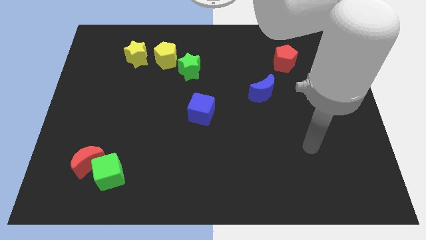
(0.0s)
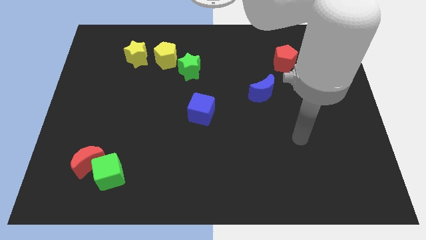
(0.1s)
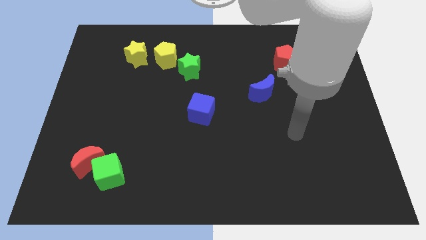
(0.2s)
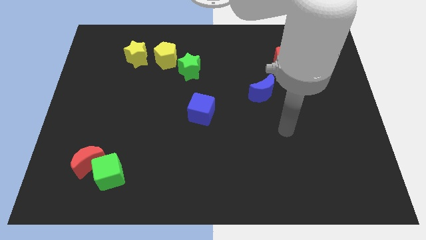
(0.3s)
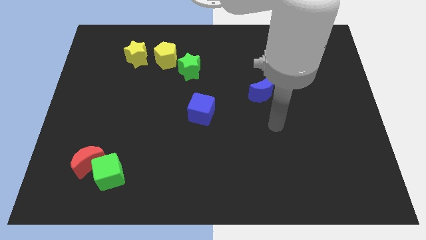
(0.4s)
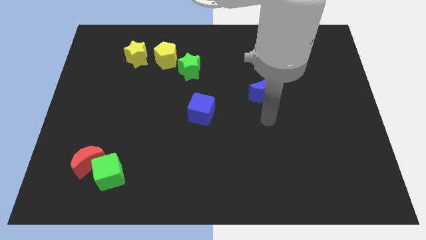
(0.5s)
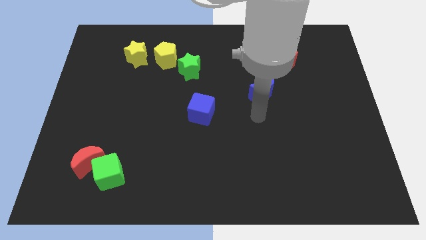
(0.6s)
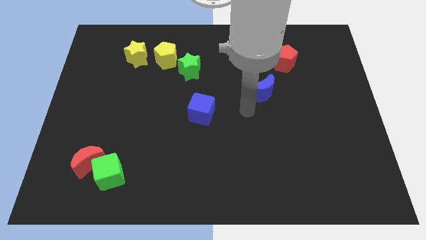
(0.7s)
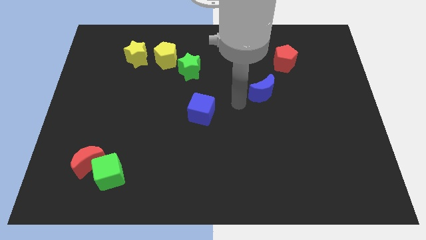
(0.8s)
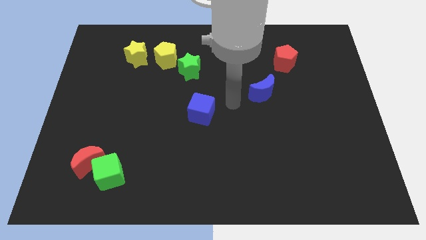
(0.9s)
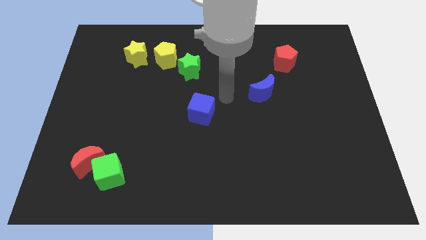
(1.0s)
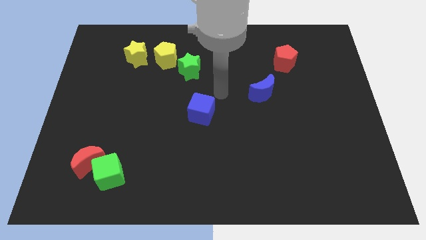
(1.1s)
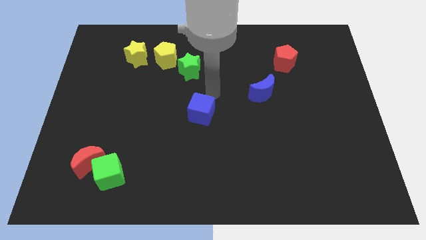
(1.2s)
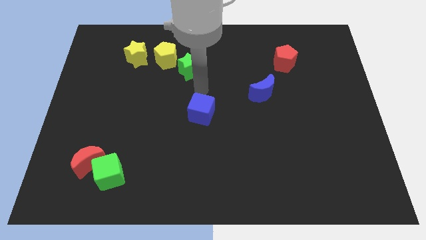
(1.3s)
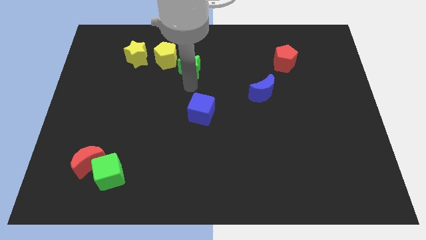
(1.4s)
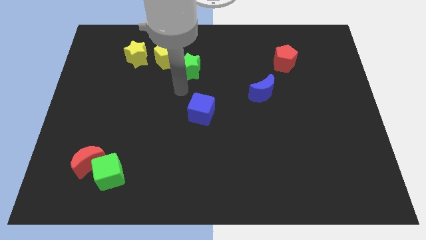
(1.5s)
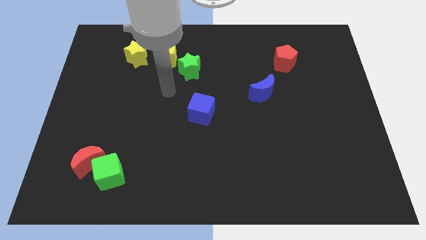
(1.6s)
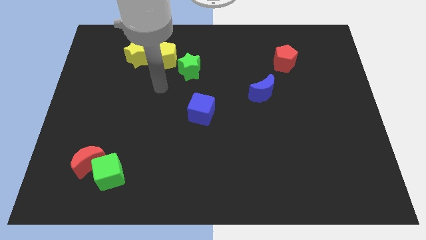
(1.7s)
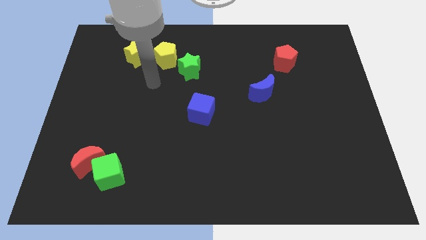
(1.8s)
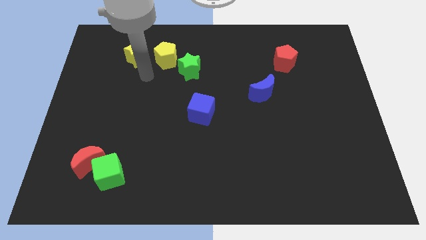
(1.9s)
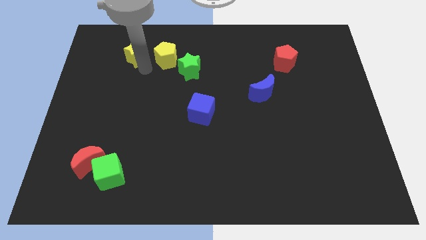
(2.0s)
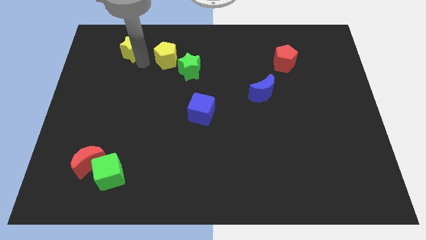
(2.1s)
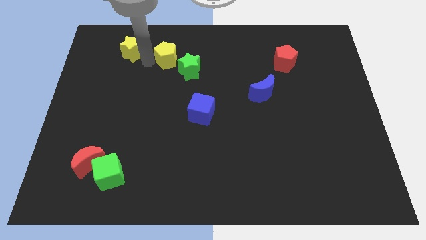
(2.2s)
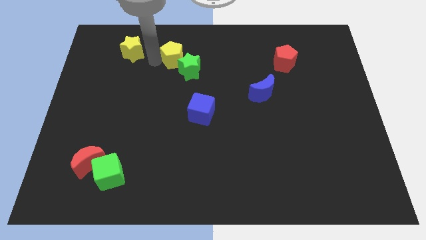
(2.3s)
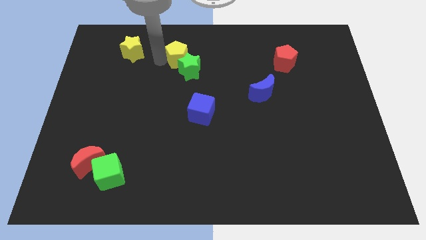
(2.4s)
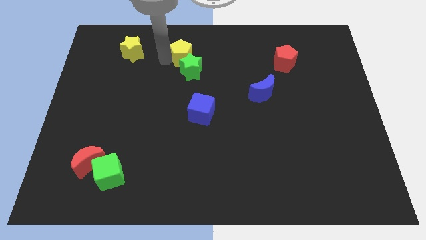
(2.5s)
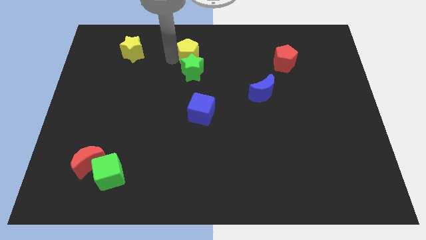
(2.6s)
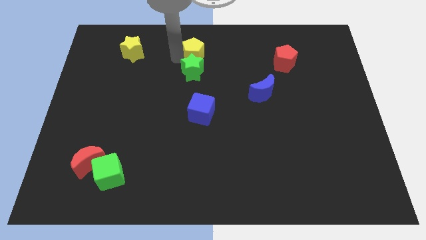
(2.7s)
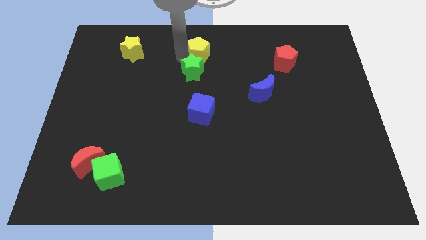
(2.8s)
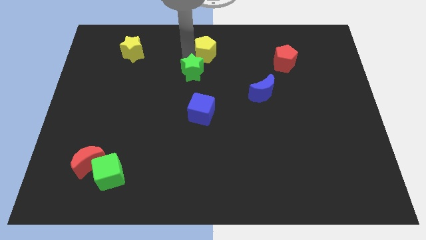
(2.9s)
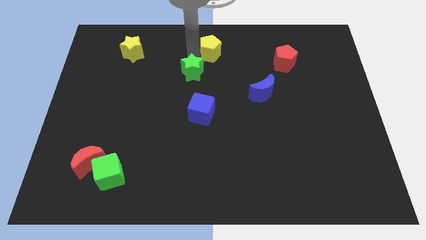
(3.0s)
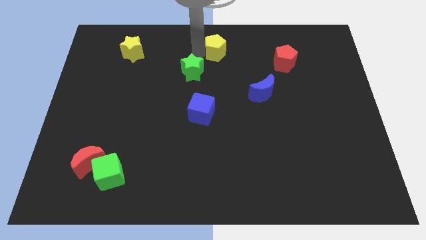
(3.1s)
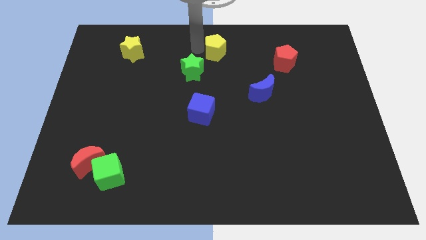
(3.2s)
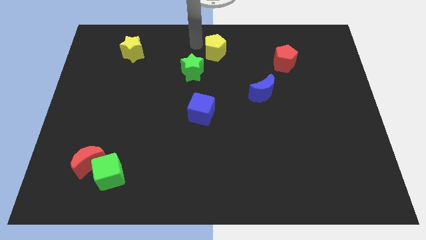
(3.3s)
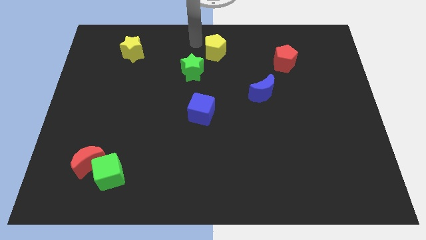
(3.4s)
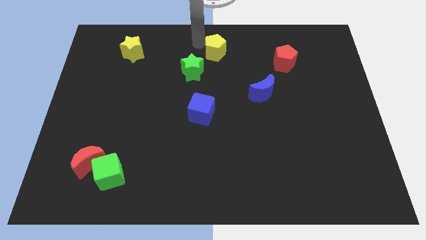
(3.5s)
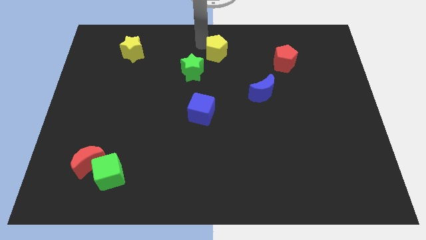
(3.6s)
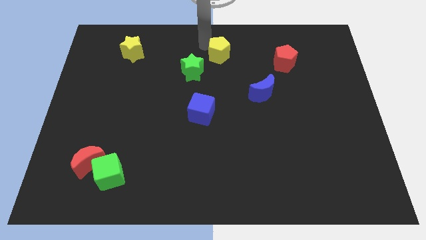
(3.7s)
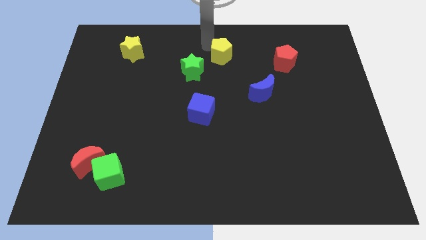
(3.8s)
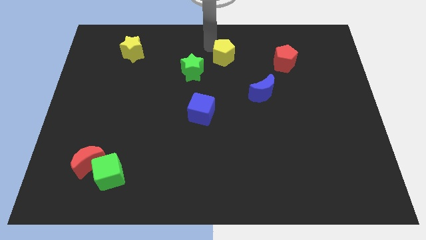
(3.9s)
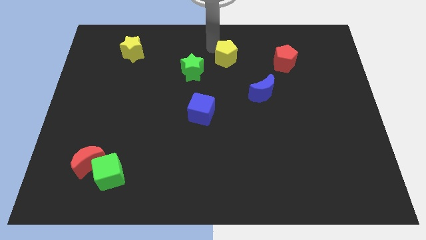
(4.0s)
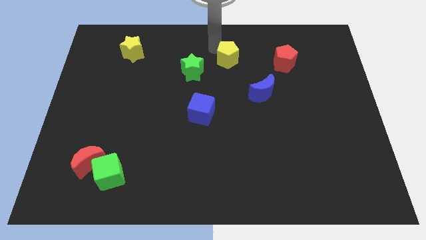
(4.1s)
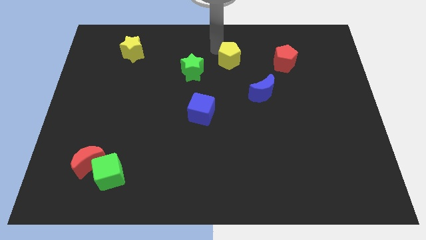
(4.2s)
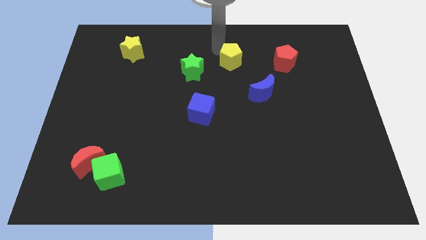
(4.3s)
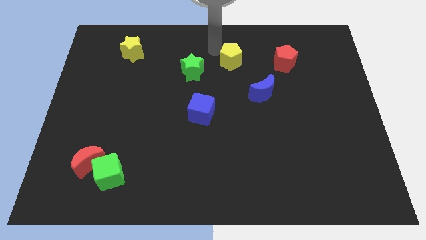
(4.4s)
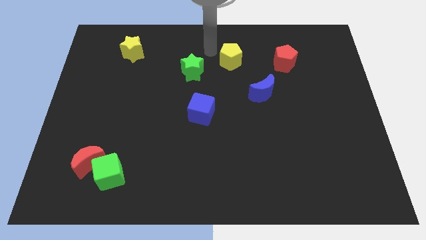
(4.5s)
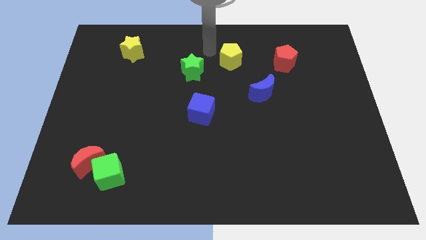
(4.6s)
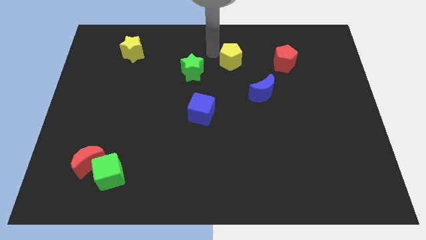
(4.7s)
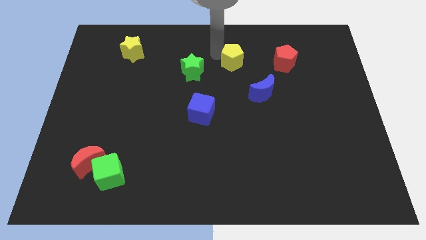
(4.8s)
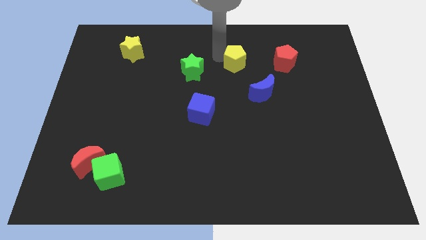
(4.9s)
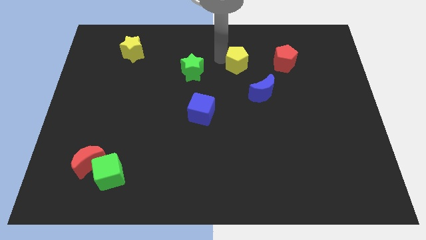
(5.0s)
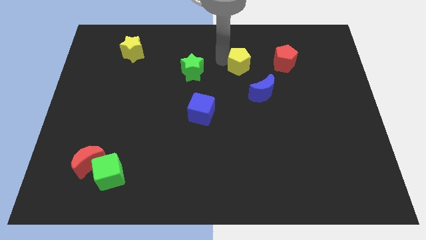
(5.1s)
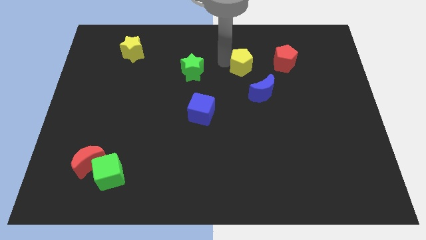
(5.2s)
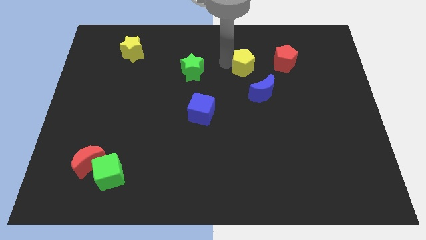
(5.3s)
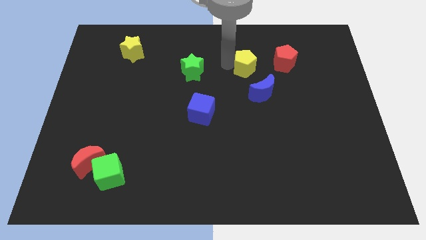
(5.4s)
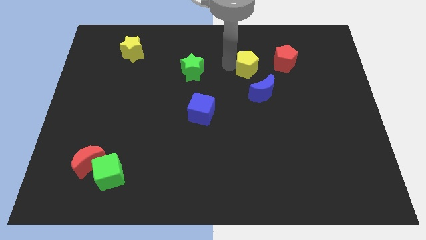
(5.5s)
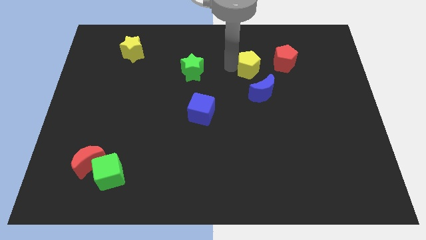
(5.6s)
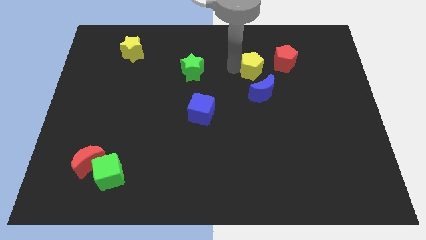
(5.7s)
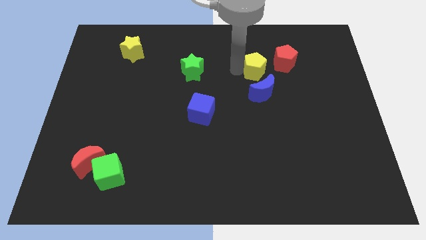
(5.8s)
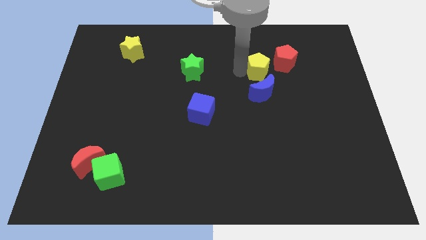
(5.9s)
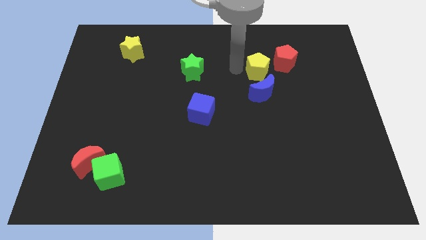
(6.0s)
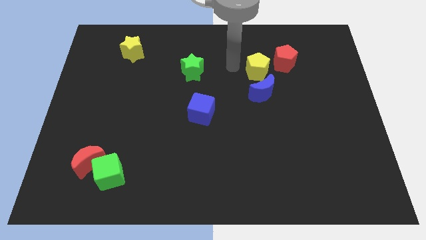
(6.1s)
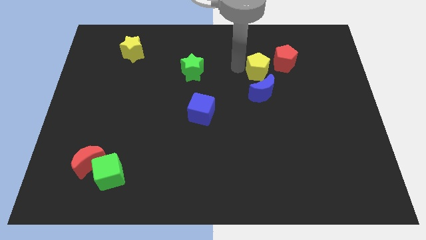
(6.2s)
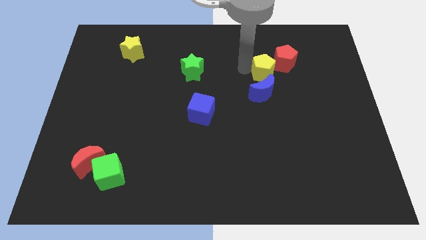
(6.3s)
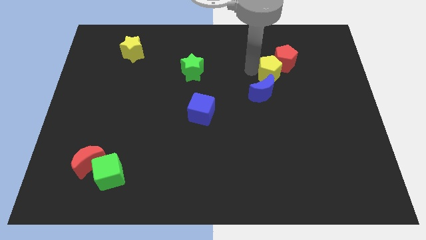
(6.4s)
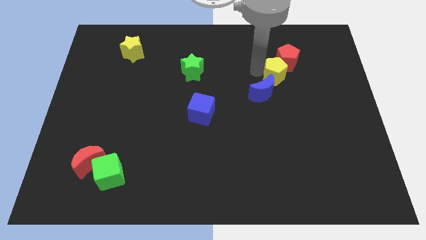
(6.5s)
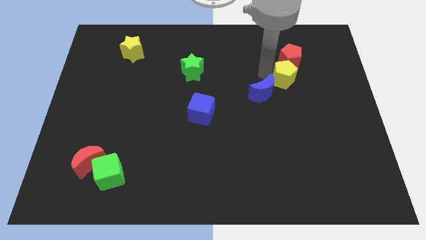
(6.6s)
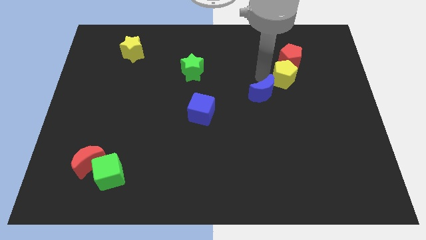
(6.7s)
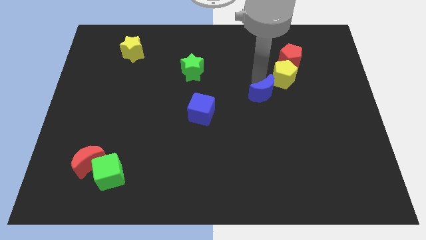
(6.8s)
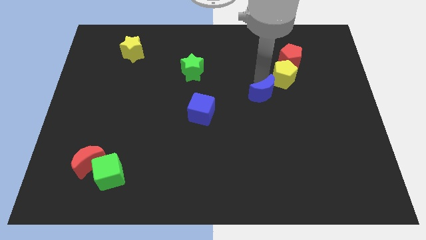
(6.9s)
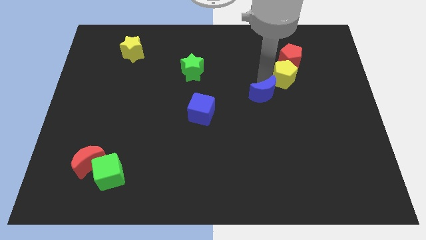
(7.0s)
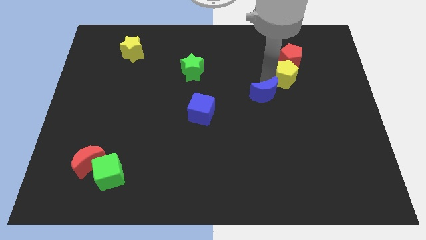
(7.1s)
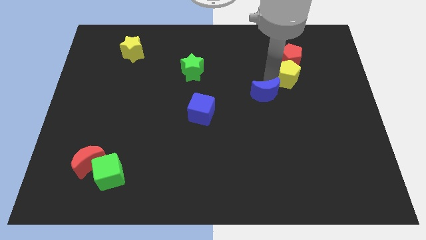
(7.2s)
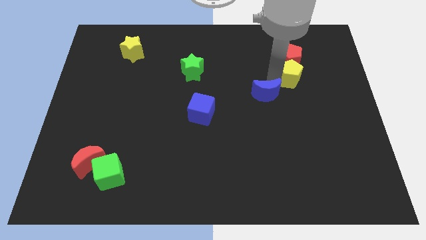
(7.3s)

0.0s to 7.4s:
move the yellow pentagon diagonally down and to the right of the red pentagon

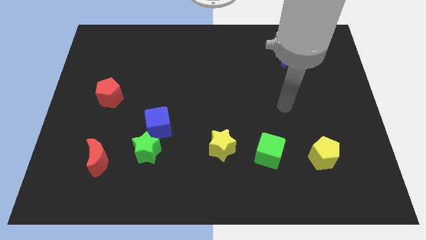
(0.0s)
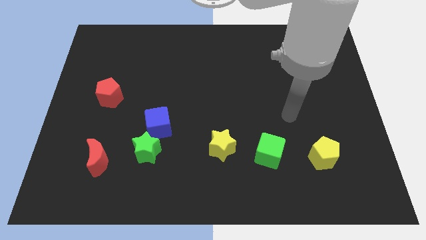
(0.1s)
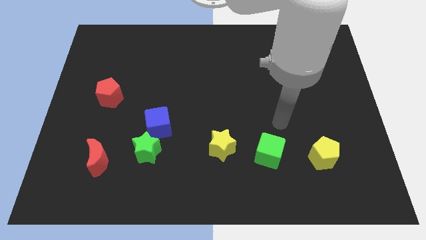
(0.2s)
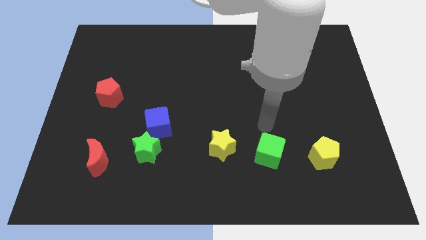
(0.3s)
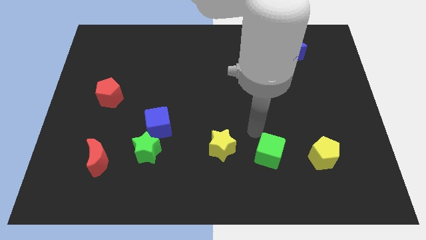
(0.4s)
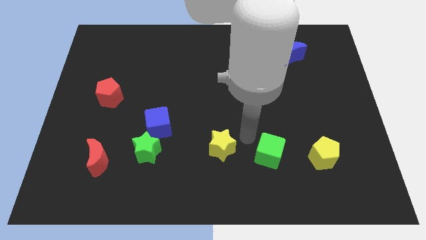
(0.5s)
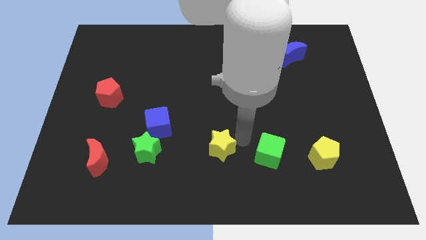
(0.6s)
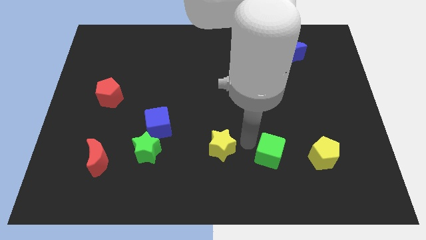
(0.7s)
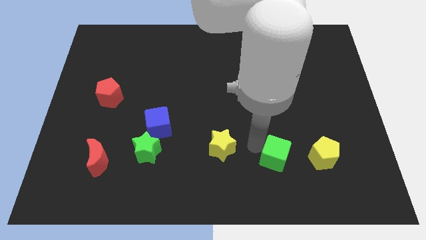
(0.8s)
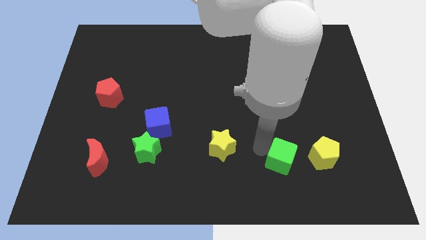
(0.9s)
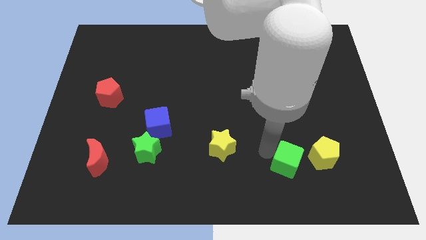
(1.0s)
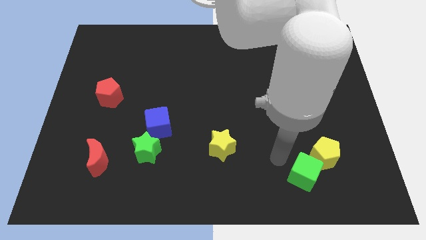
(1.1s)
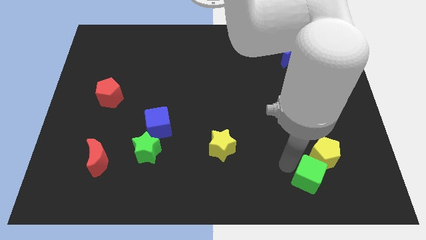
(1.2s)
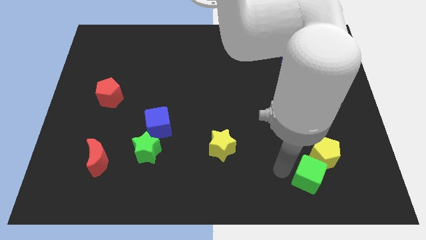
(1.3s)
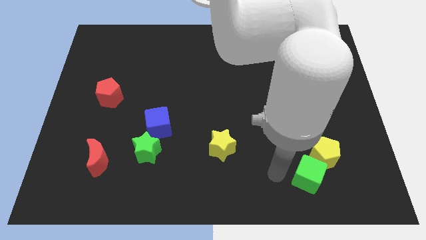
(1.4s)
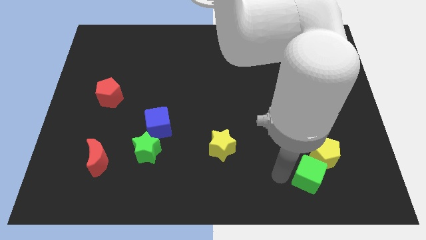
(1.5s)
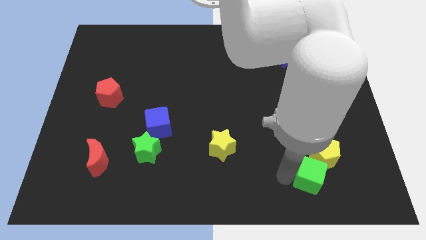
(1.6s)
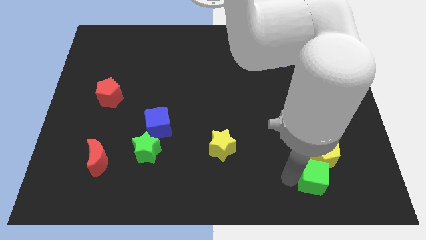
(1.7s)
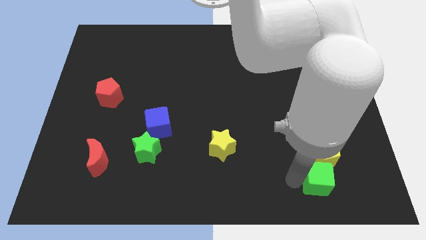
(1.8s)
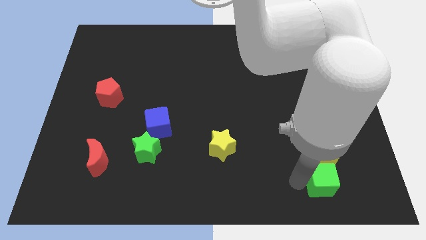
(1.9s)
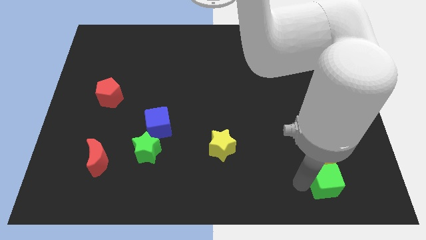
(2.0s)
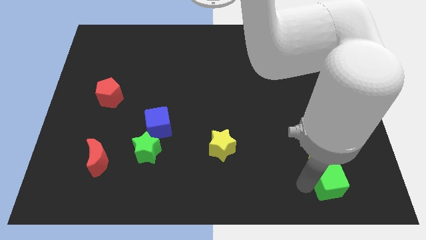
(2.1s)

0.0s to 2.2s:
move the green cube to the bottom right of the yellow pentagon
